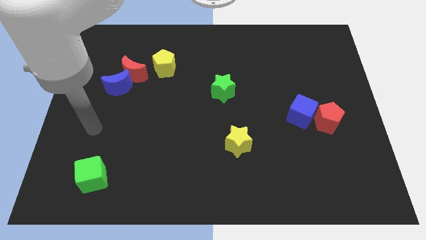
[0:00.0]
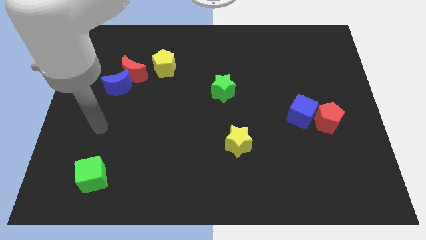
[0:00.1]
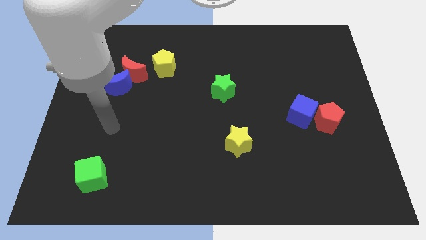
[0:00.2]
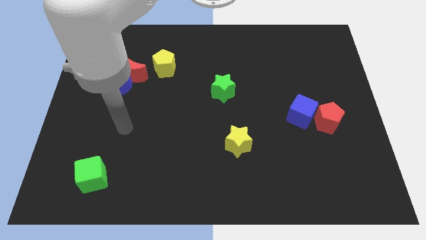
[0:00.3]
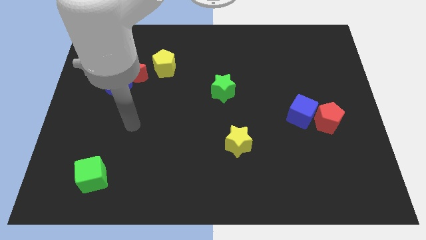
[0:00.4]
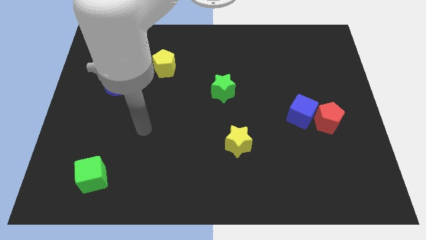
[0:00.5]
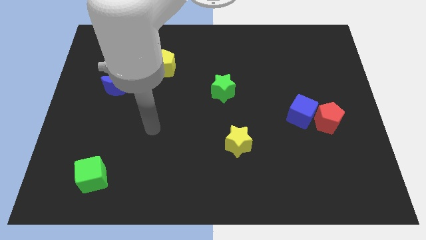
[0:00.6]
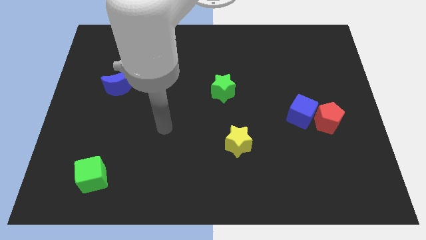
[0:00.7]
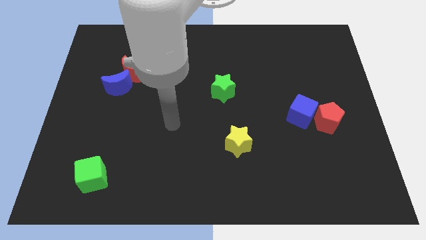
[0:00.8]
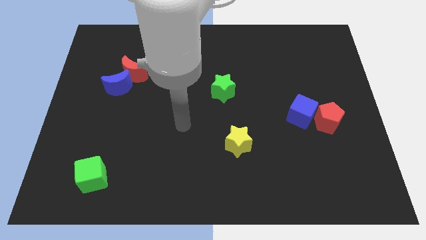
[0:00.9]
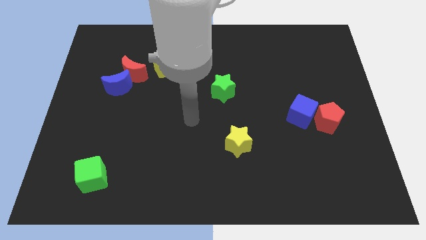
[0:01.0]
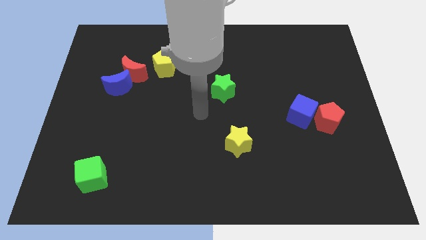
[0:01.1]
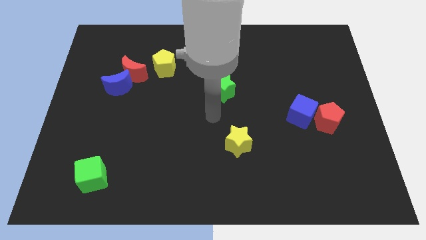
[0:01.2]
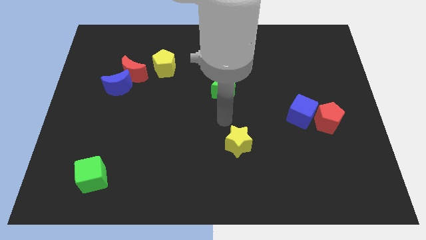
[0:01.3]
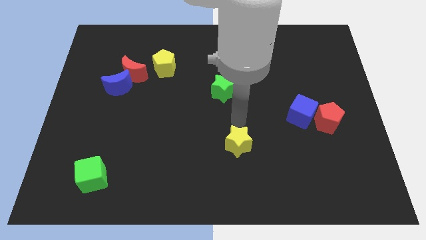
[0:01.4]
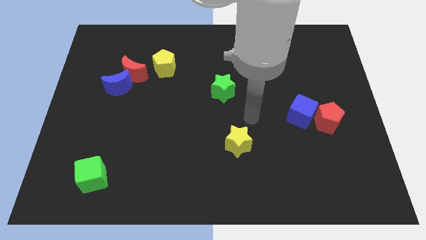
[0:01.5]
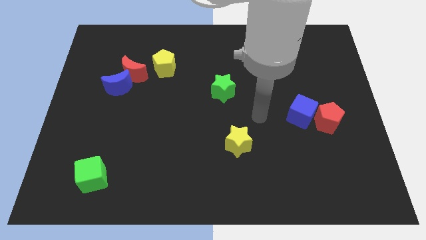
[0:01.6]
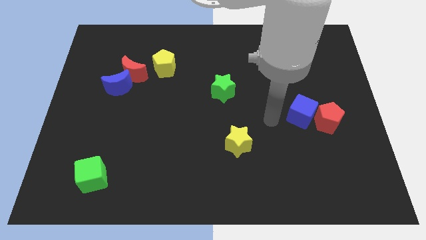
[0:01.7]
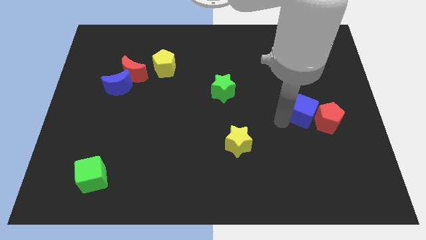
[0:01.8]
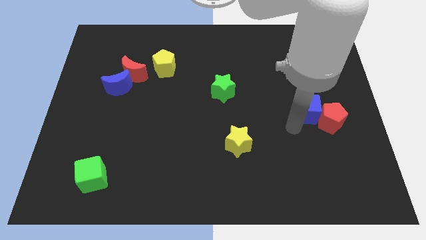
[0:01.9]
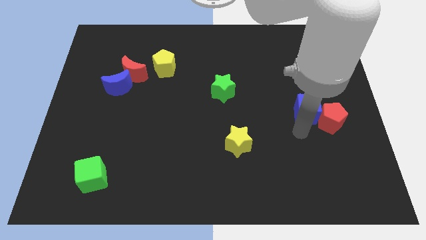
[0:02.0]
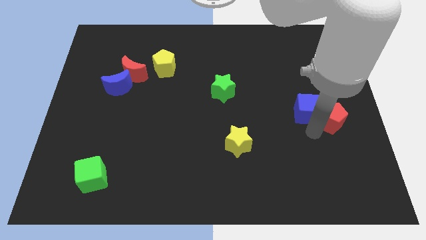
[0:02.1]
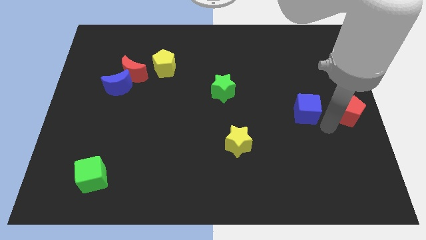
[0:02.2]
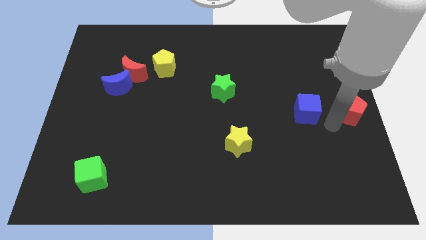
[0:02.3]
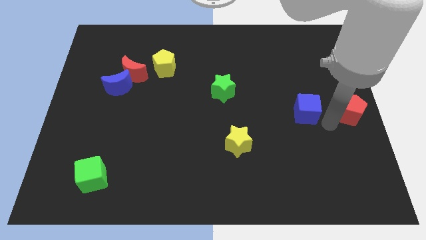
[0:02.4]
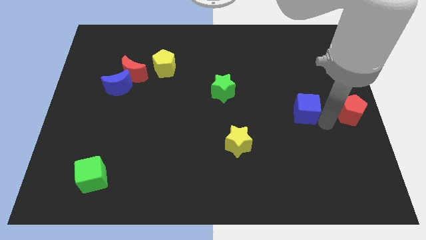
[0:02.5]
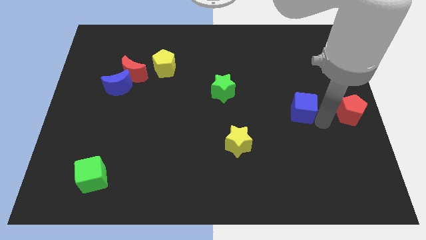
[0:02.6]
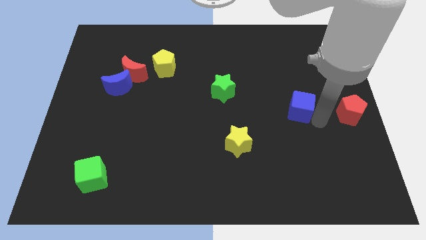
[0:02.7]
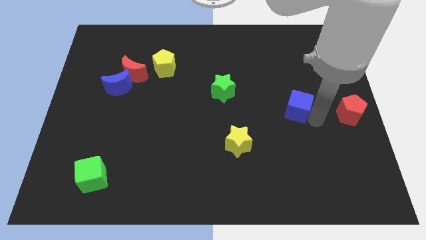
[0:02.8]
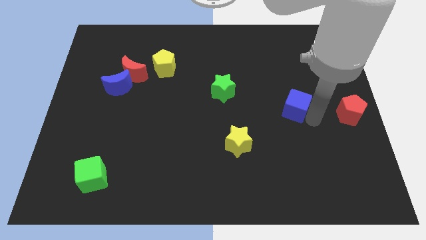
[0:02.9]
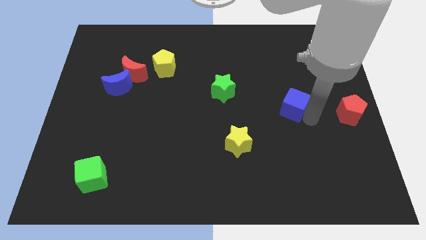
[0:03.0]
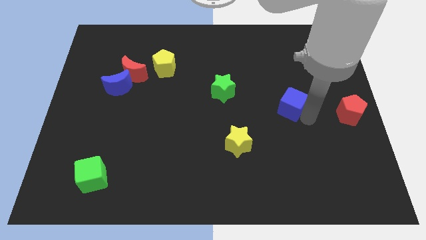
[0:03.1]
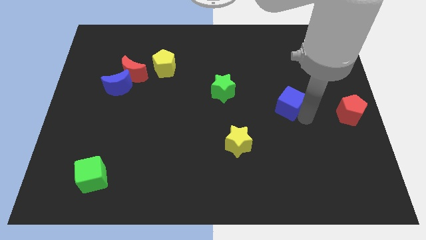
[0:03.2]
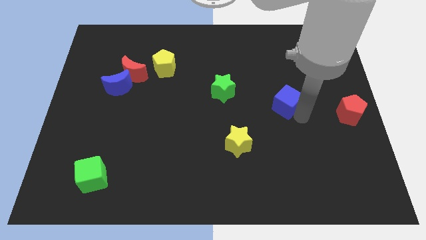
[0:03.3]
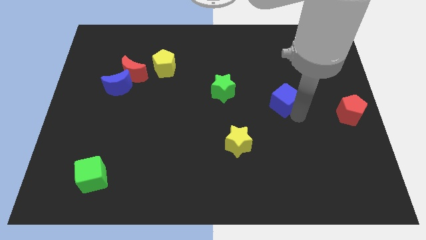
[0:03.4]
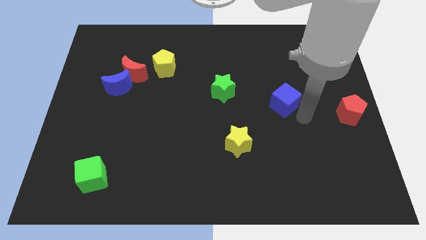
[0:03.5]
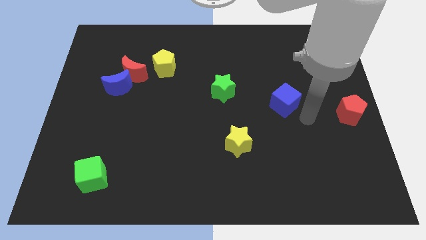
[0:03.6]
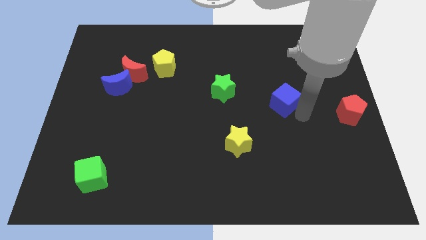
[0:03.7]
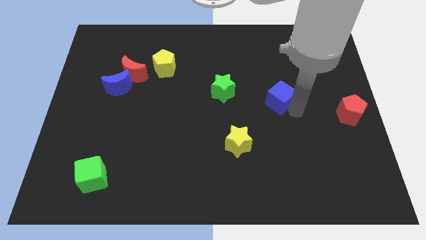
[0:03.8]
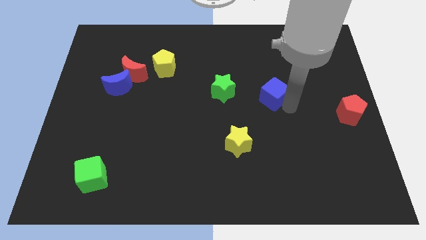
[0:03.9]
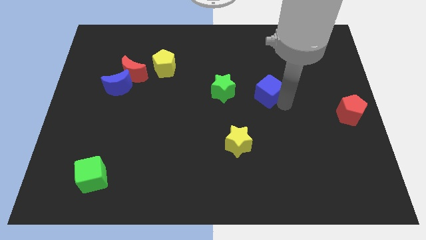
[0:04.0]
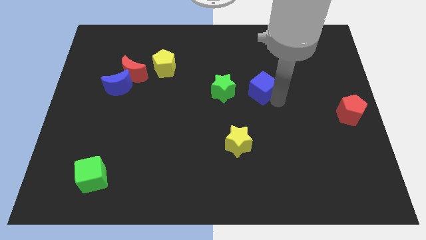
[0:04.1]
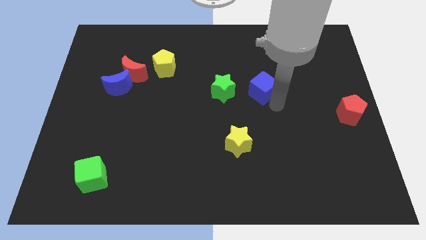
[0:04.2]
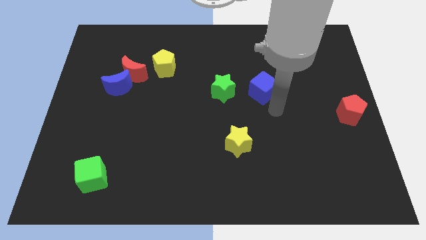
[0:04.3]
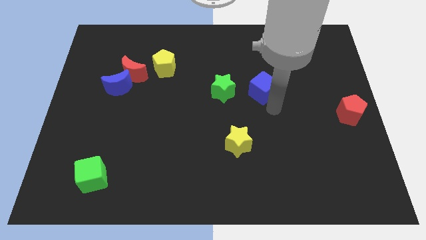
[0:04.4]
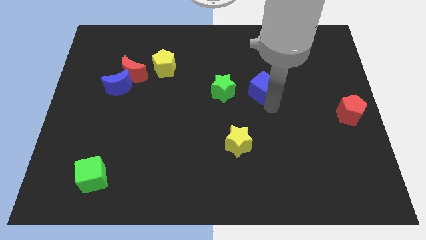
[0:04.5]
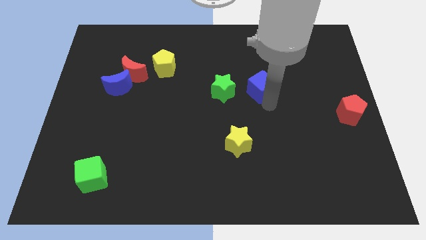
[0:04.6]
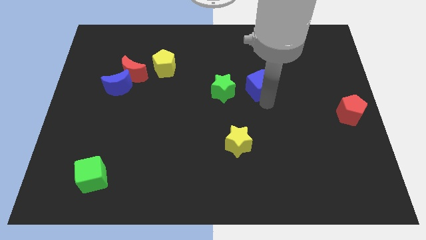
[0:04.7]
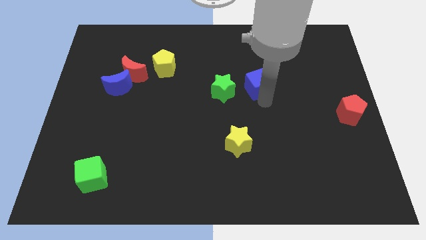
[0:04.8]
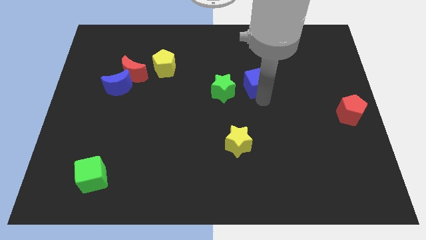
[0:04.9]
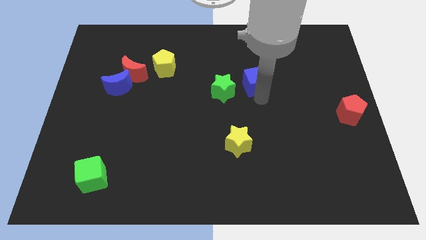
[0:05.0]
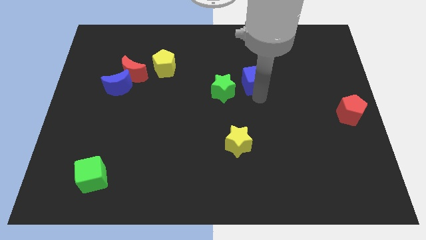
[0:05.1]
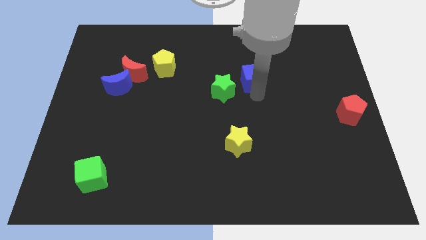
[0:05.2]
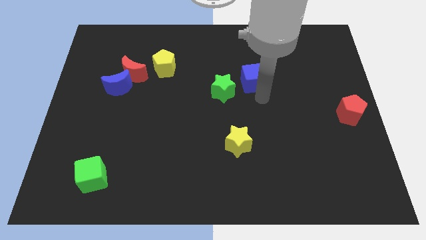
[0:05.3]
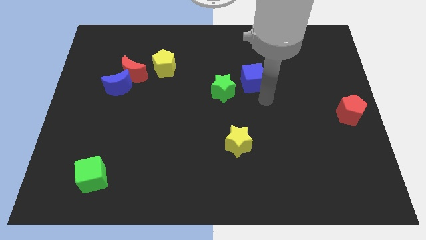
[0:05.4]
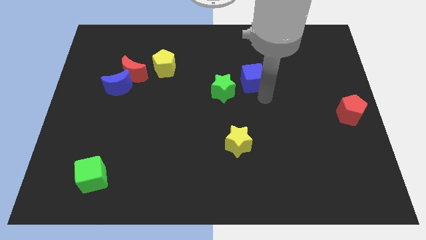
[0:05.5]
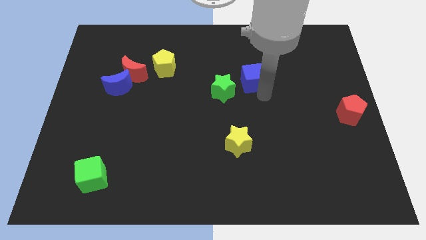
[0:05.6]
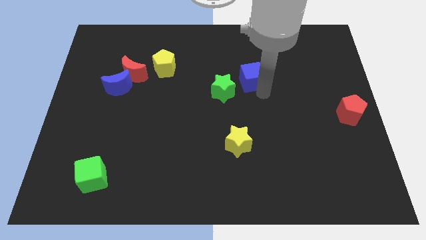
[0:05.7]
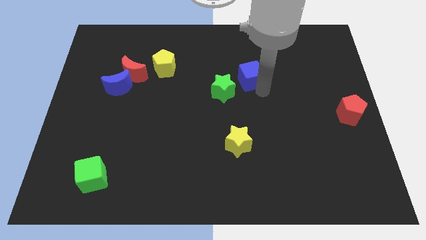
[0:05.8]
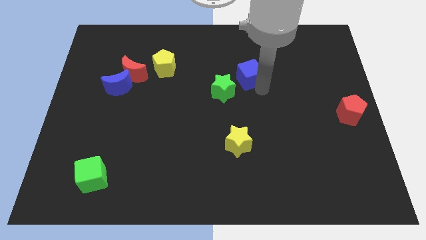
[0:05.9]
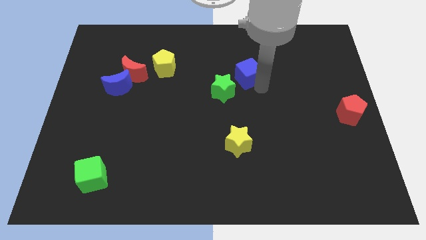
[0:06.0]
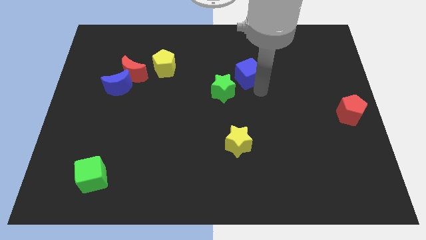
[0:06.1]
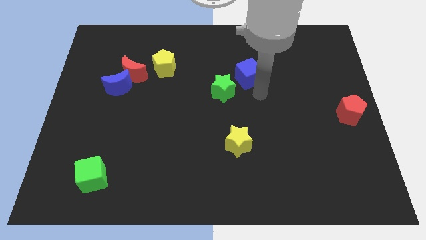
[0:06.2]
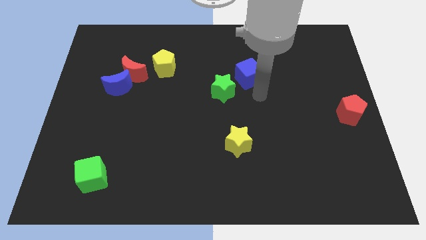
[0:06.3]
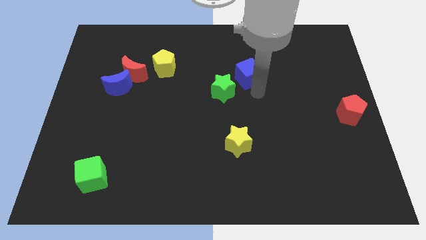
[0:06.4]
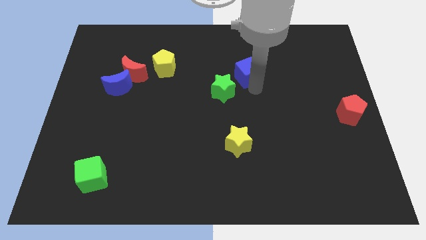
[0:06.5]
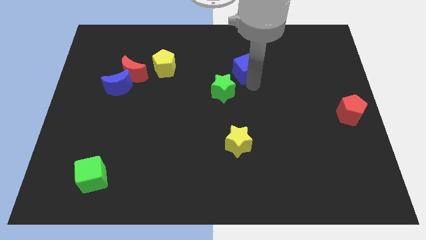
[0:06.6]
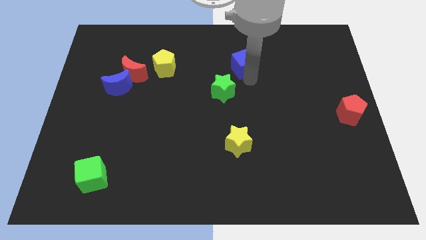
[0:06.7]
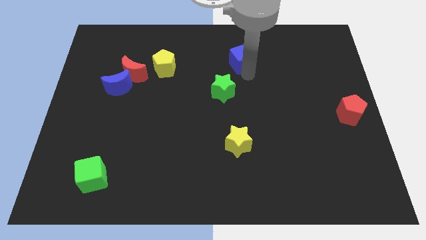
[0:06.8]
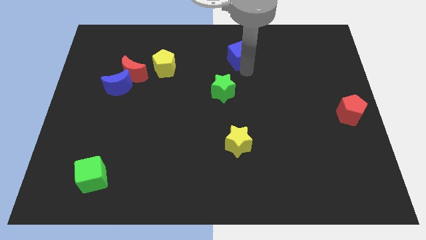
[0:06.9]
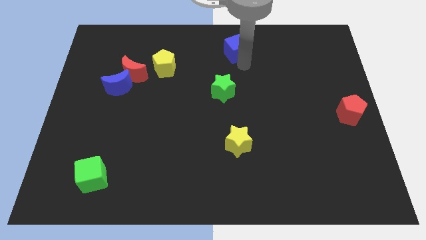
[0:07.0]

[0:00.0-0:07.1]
slide the blue cube to the top
